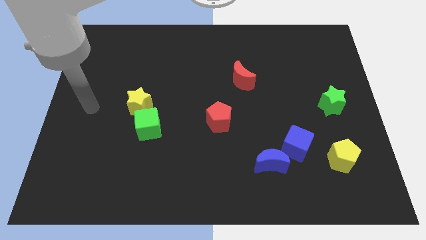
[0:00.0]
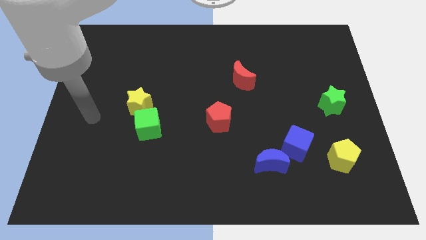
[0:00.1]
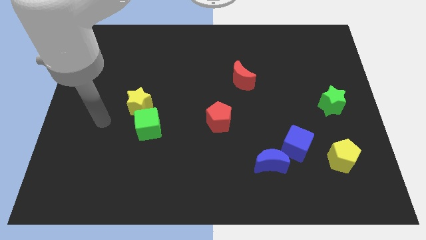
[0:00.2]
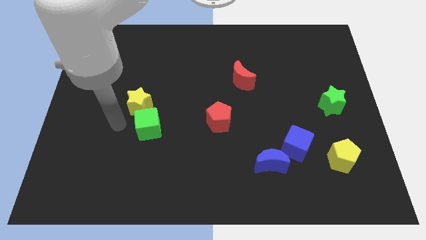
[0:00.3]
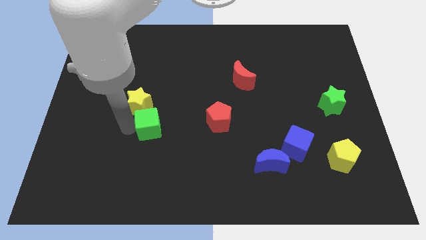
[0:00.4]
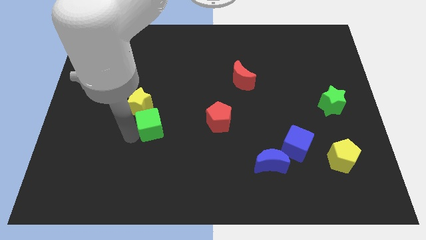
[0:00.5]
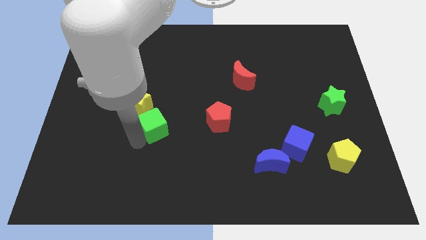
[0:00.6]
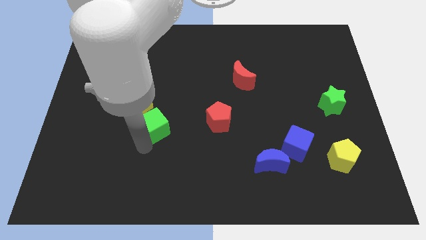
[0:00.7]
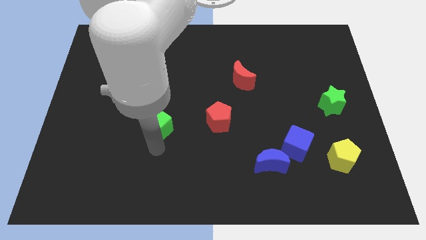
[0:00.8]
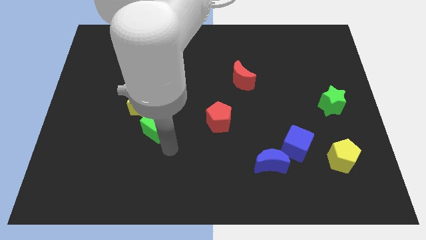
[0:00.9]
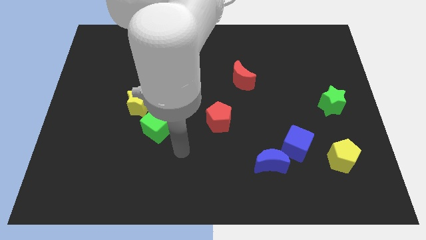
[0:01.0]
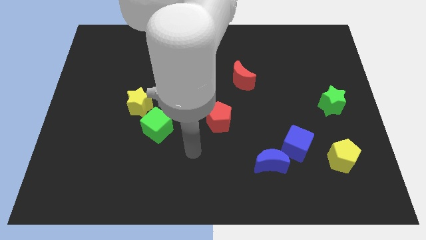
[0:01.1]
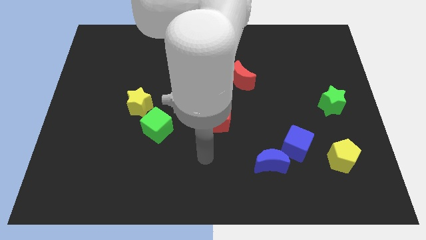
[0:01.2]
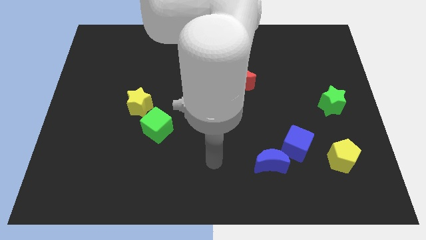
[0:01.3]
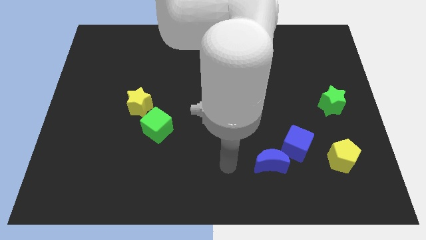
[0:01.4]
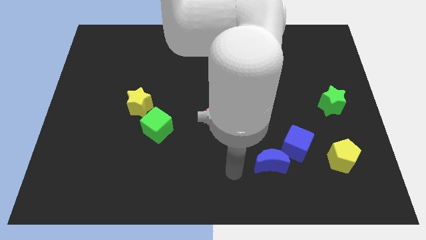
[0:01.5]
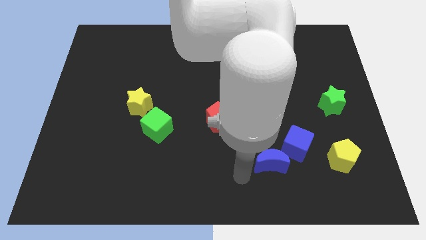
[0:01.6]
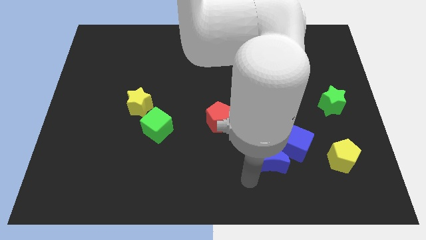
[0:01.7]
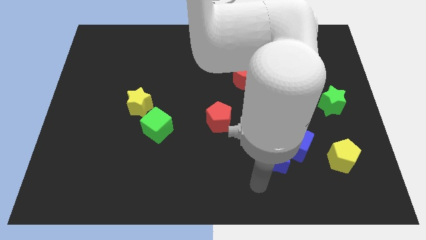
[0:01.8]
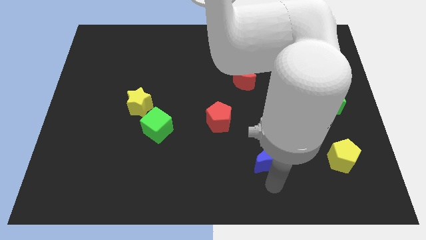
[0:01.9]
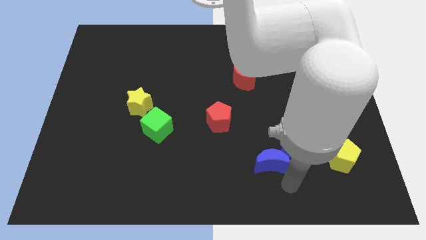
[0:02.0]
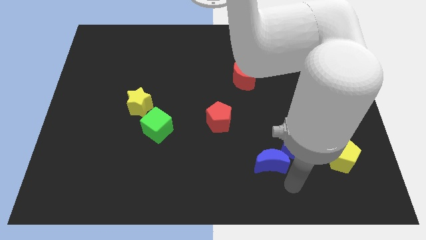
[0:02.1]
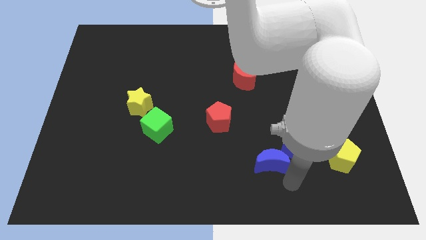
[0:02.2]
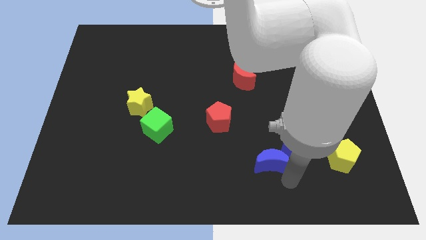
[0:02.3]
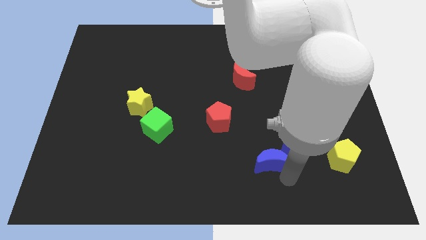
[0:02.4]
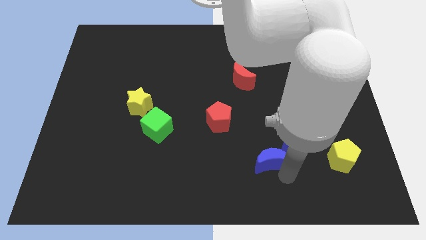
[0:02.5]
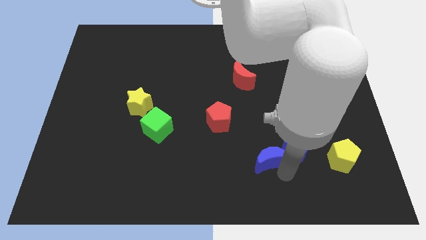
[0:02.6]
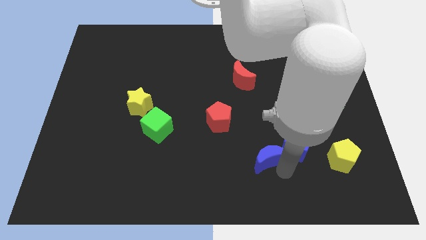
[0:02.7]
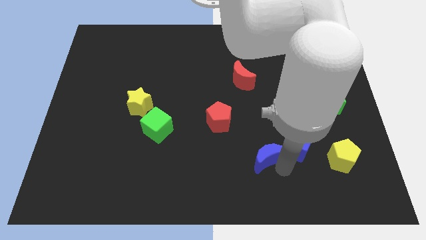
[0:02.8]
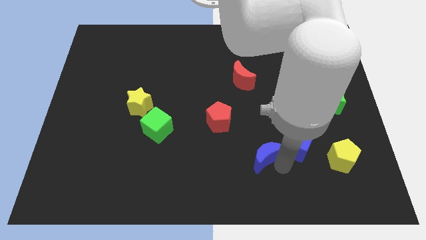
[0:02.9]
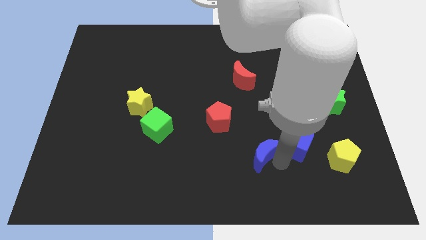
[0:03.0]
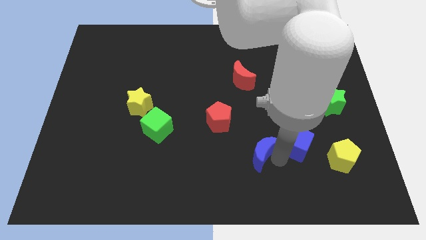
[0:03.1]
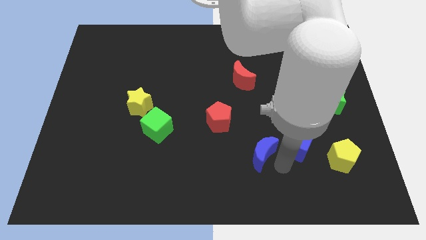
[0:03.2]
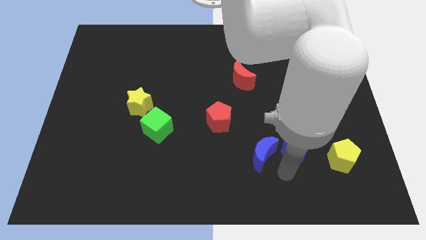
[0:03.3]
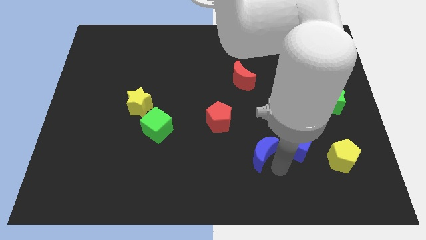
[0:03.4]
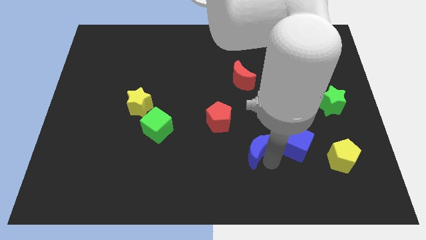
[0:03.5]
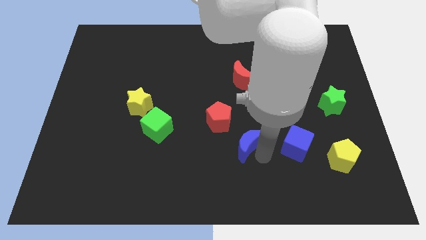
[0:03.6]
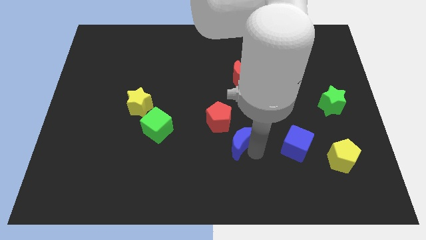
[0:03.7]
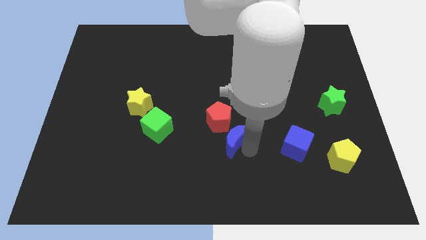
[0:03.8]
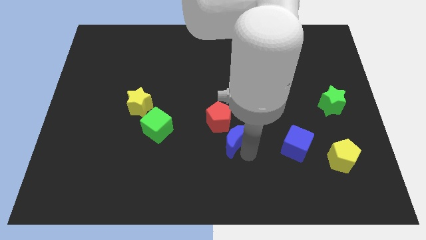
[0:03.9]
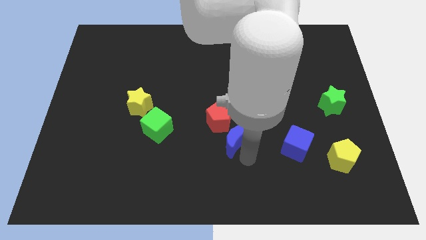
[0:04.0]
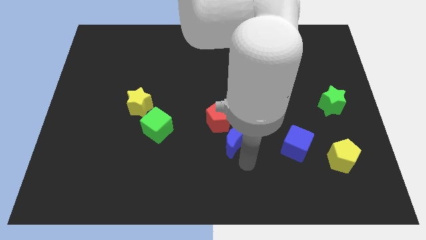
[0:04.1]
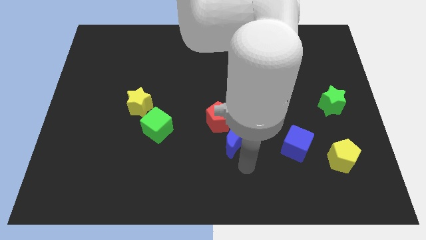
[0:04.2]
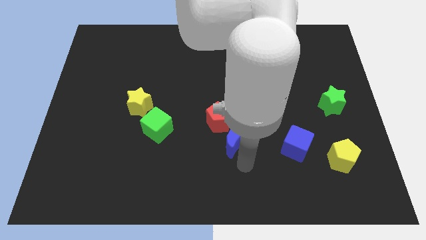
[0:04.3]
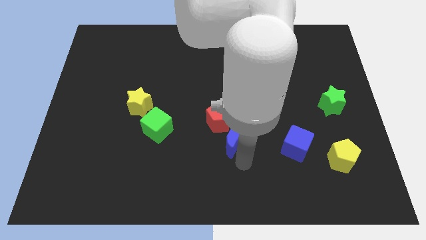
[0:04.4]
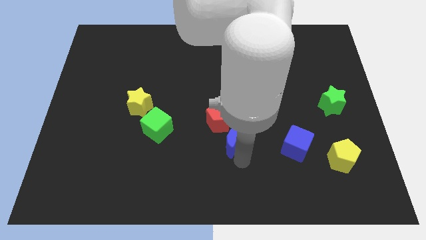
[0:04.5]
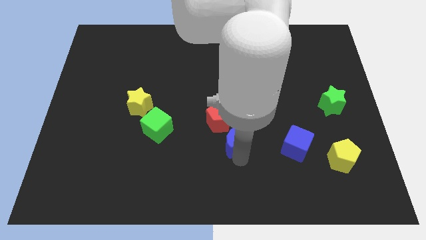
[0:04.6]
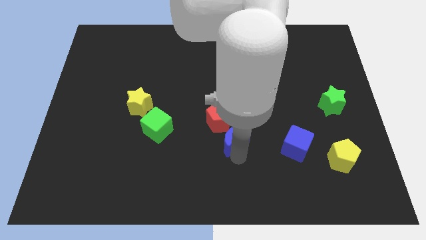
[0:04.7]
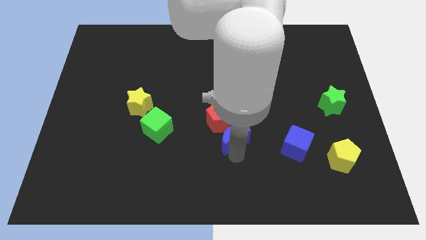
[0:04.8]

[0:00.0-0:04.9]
put the blue moon close to the red pentagon

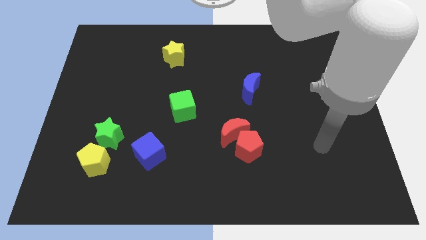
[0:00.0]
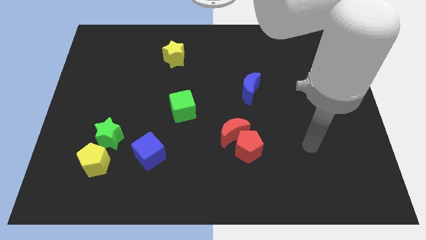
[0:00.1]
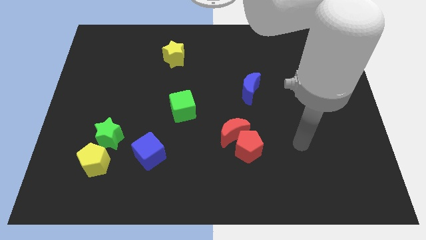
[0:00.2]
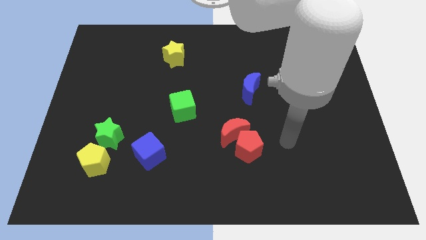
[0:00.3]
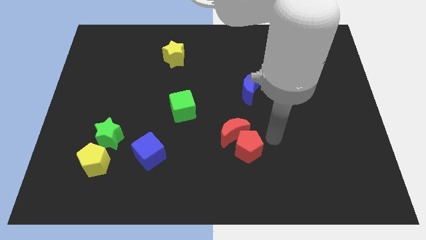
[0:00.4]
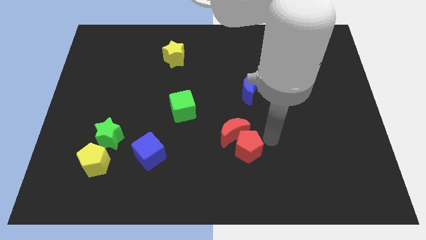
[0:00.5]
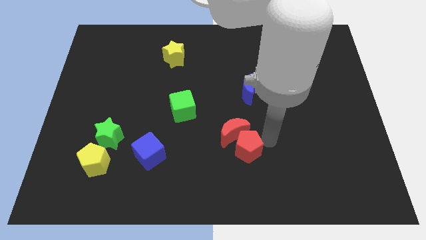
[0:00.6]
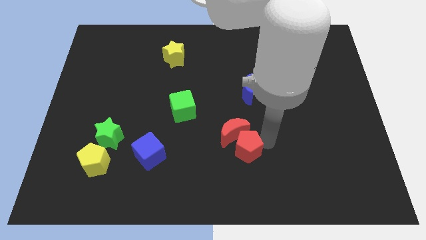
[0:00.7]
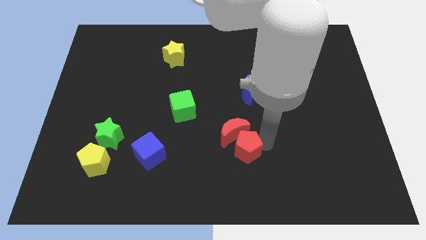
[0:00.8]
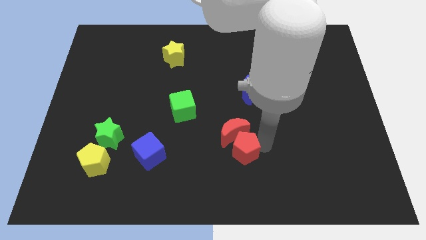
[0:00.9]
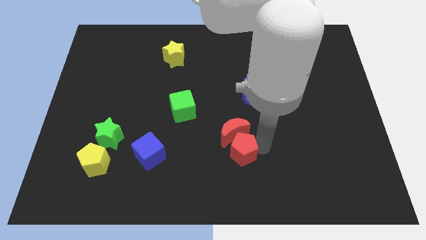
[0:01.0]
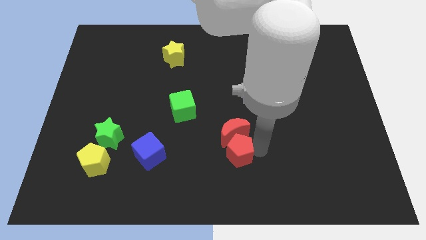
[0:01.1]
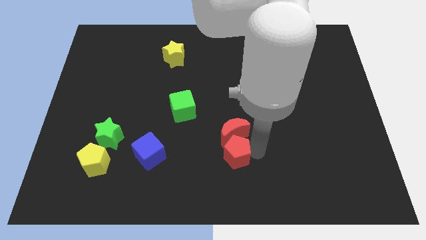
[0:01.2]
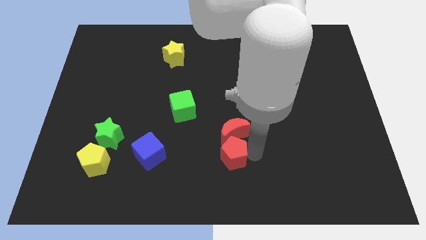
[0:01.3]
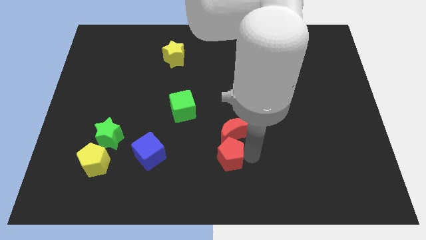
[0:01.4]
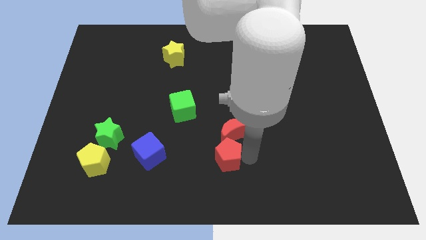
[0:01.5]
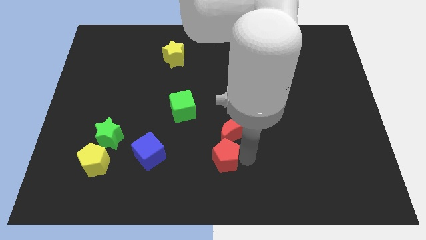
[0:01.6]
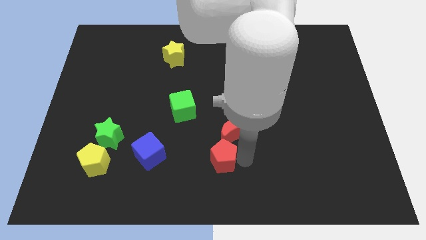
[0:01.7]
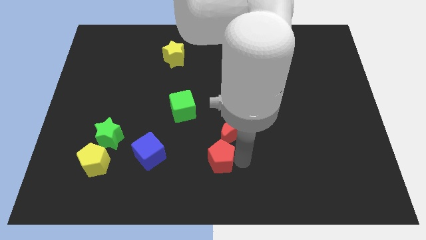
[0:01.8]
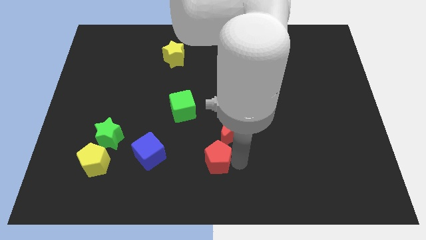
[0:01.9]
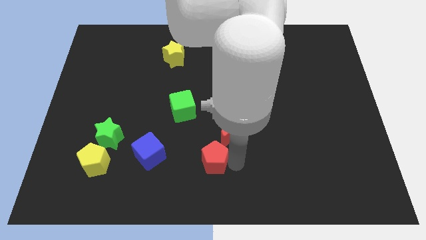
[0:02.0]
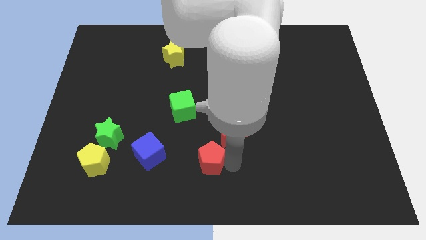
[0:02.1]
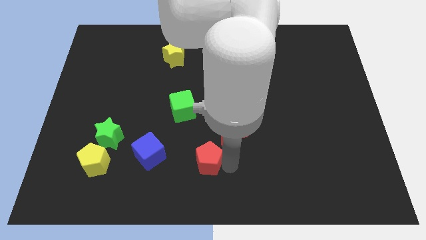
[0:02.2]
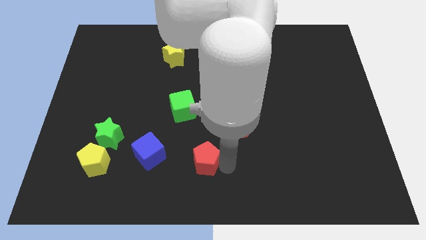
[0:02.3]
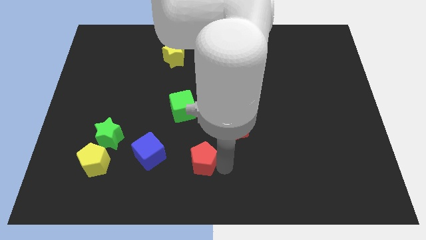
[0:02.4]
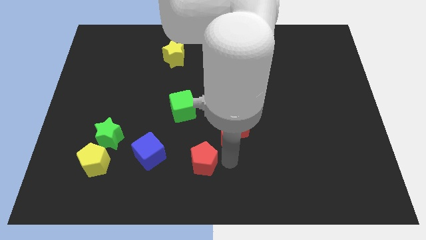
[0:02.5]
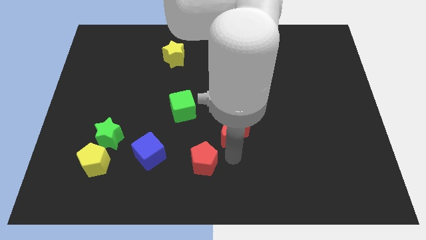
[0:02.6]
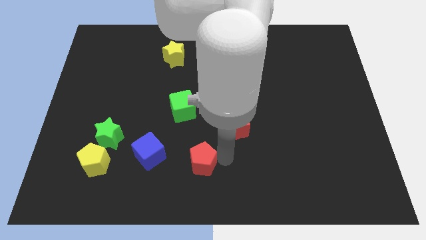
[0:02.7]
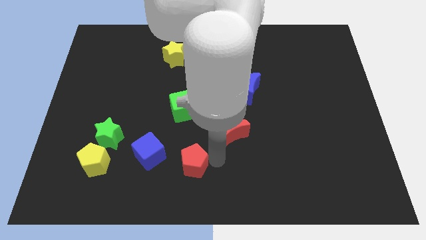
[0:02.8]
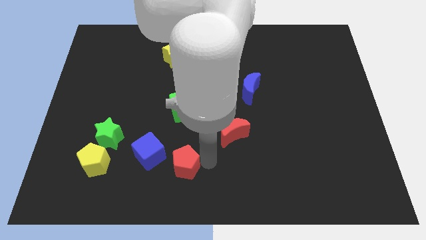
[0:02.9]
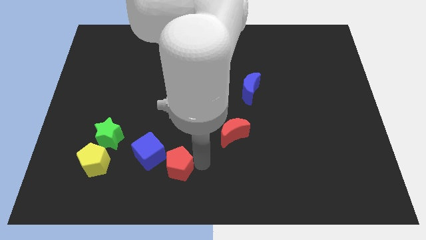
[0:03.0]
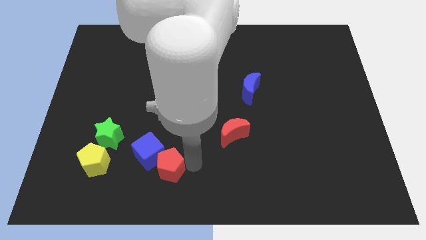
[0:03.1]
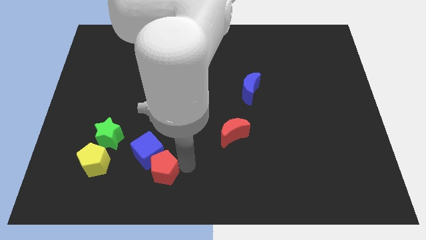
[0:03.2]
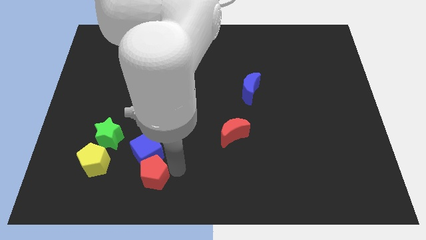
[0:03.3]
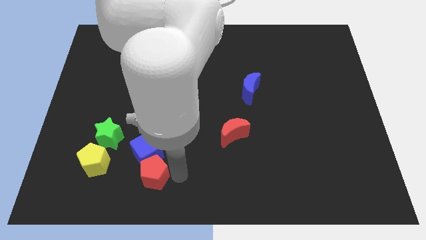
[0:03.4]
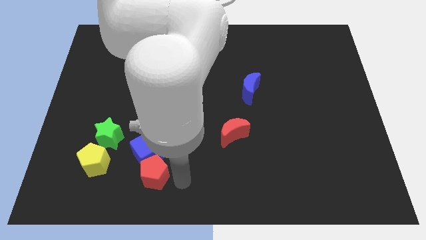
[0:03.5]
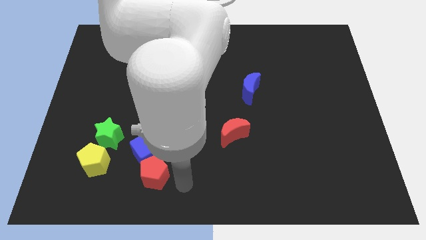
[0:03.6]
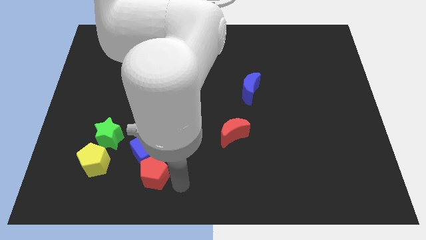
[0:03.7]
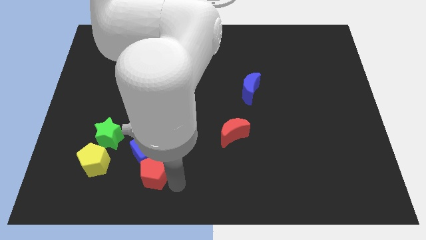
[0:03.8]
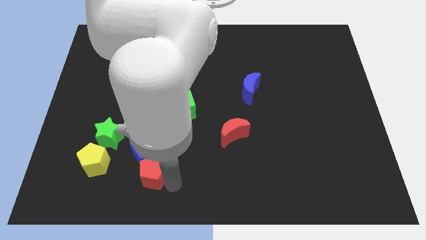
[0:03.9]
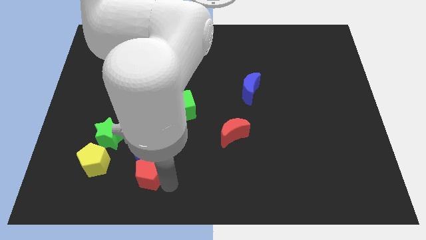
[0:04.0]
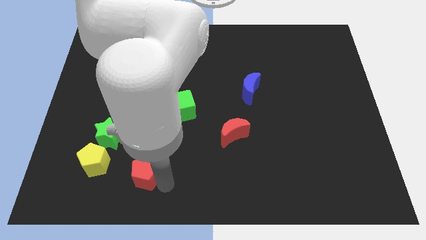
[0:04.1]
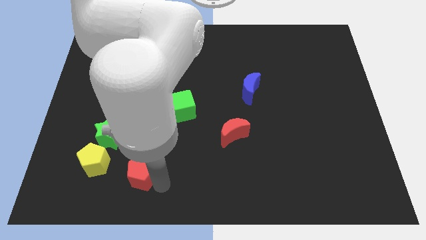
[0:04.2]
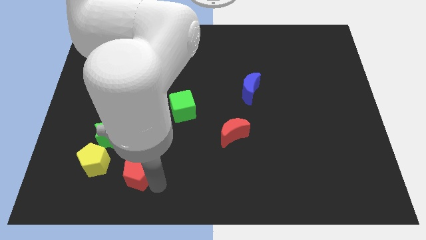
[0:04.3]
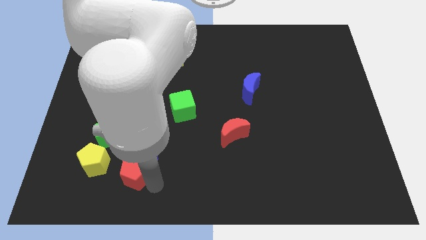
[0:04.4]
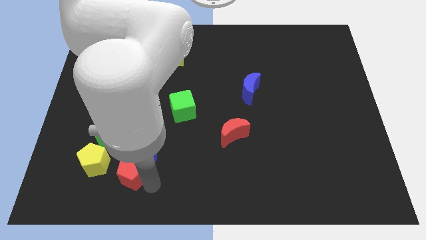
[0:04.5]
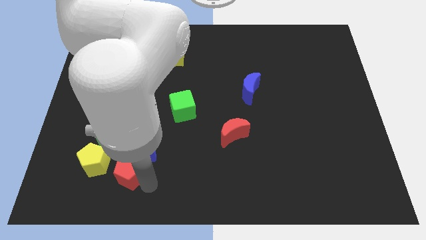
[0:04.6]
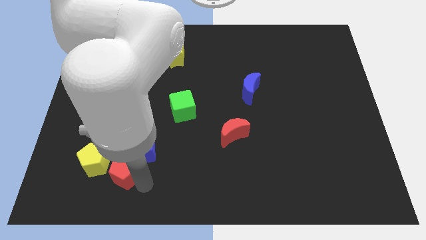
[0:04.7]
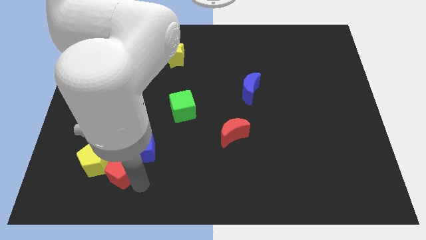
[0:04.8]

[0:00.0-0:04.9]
push the red pentagon towards the yellow pentagon
